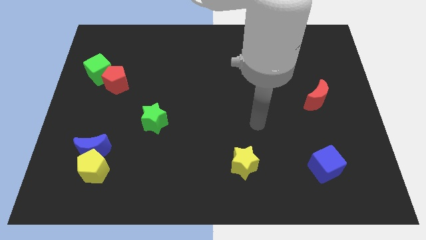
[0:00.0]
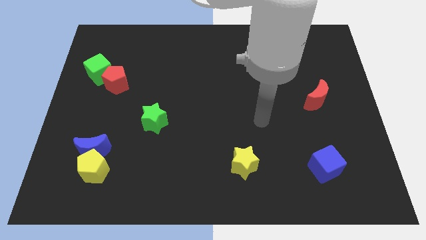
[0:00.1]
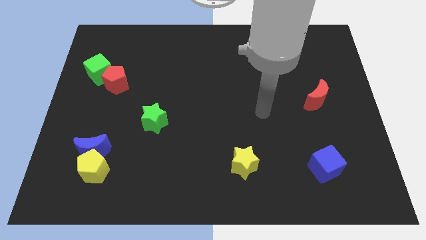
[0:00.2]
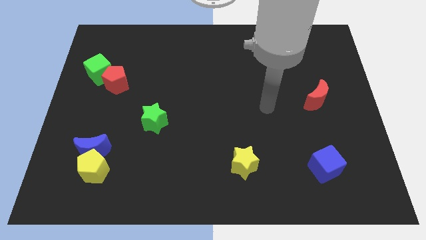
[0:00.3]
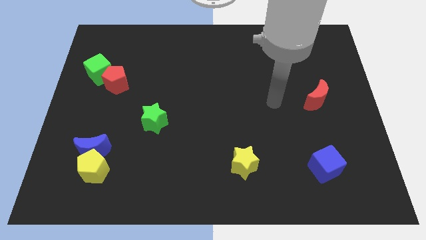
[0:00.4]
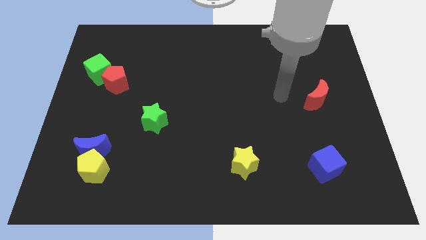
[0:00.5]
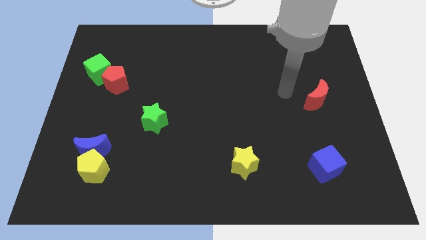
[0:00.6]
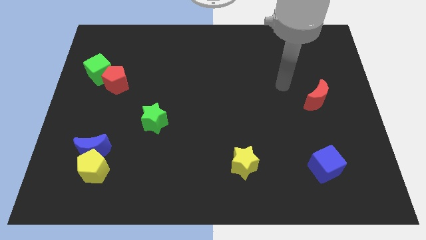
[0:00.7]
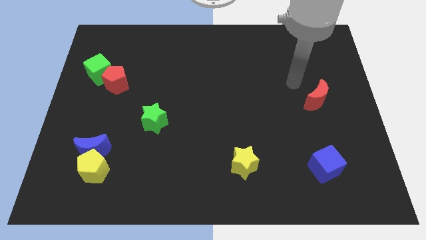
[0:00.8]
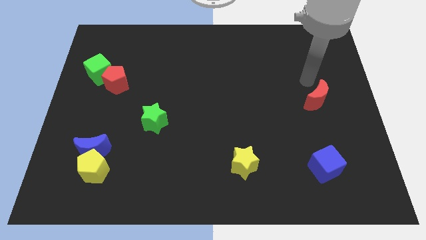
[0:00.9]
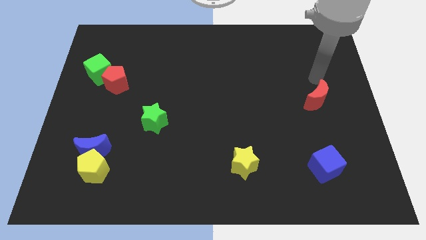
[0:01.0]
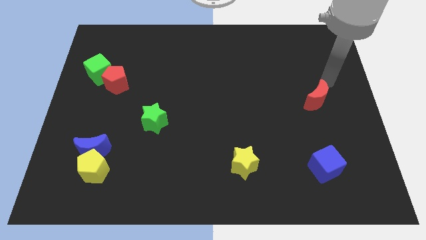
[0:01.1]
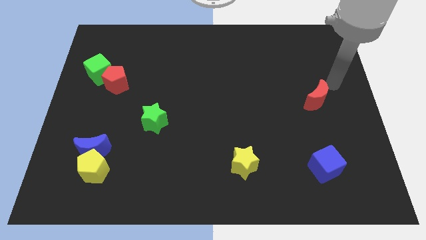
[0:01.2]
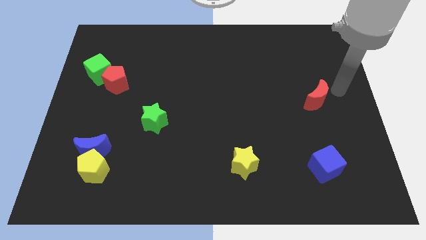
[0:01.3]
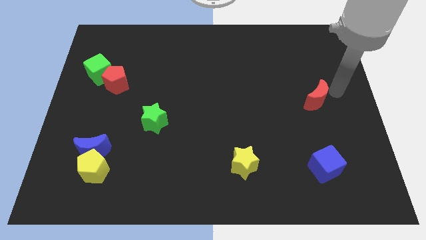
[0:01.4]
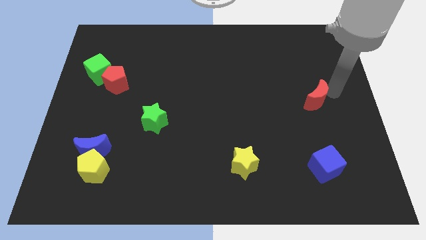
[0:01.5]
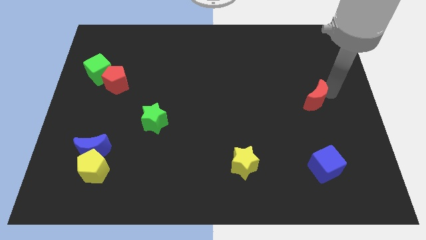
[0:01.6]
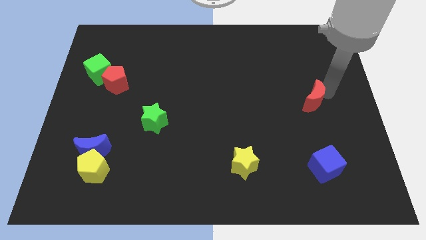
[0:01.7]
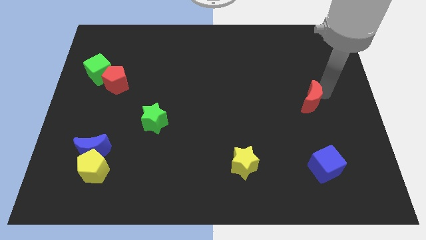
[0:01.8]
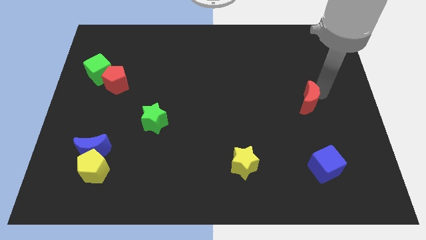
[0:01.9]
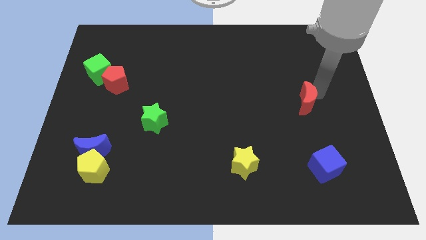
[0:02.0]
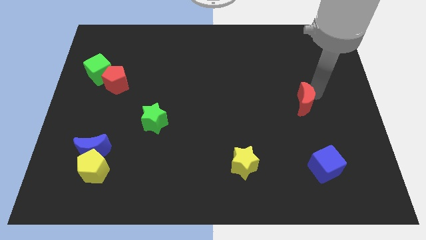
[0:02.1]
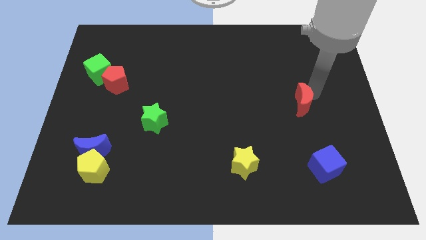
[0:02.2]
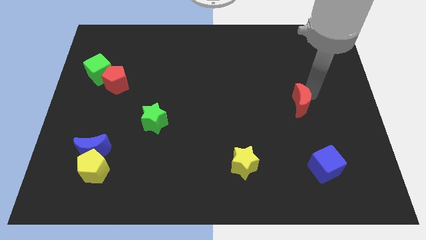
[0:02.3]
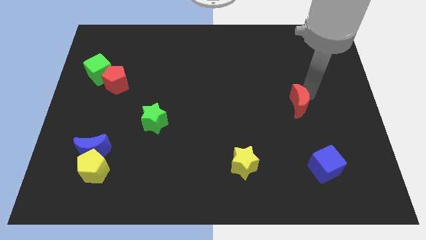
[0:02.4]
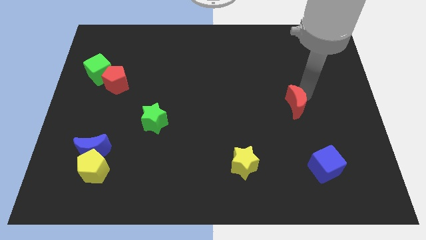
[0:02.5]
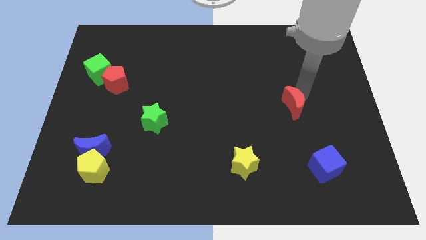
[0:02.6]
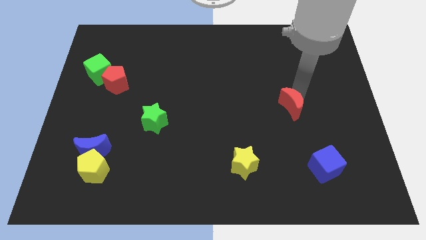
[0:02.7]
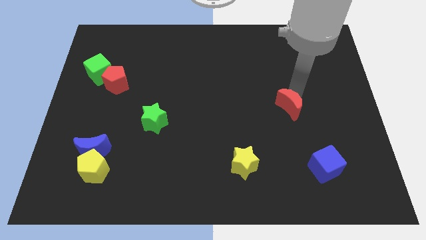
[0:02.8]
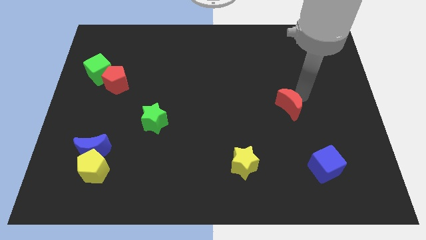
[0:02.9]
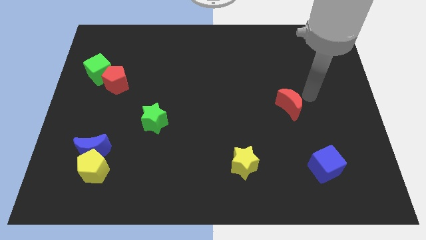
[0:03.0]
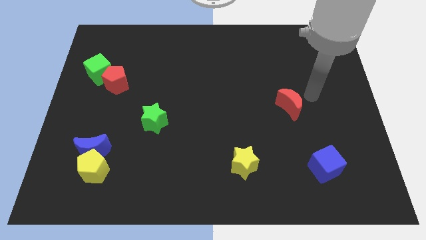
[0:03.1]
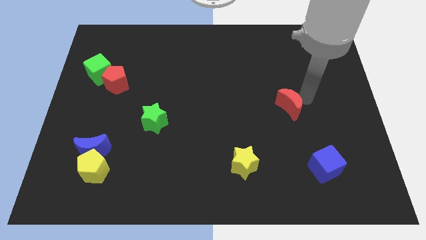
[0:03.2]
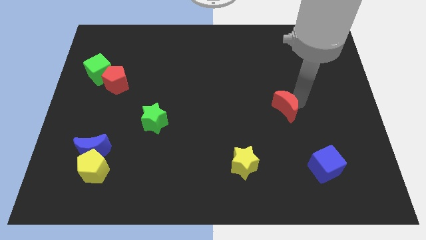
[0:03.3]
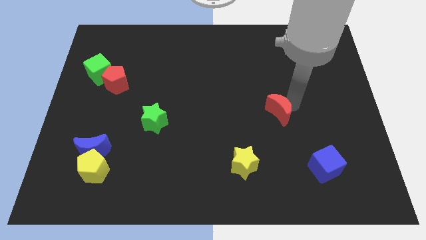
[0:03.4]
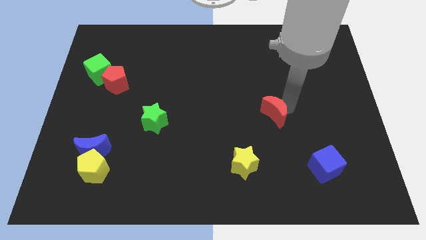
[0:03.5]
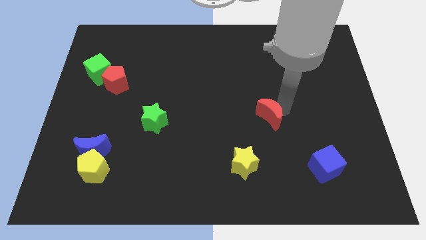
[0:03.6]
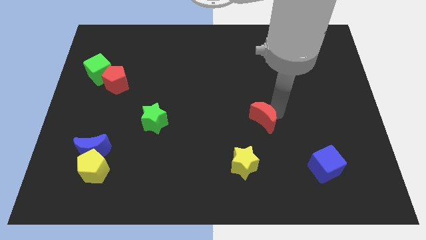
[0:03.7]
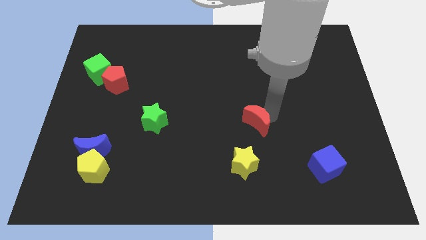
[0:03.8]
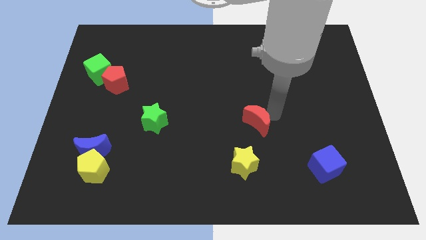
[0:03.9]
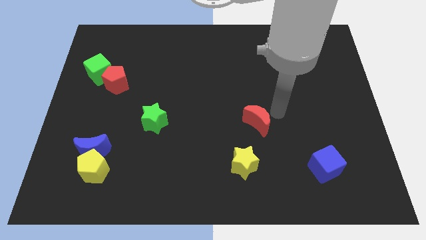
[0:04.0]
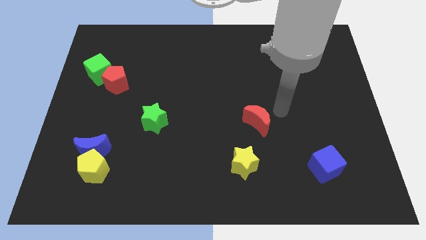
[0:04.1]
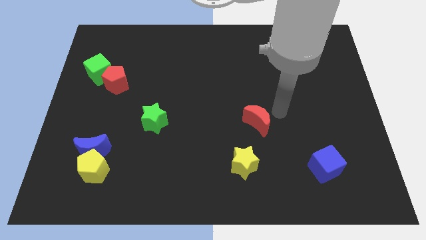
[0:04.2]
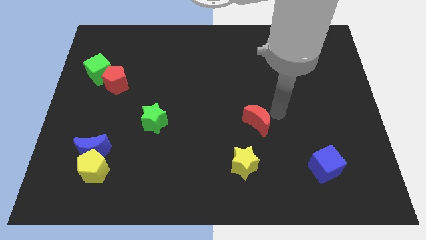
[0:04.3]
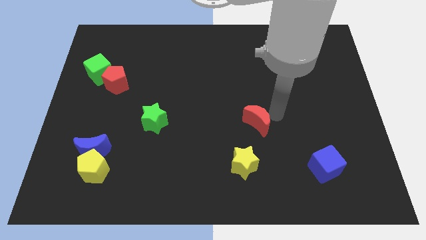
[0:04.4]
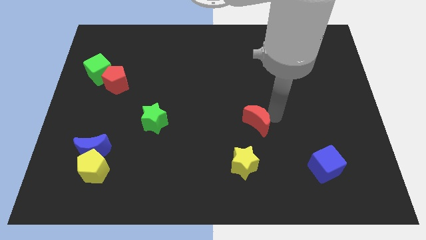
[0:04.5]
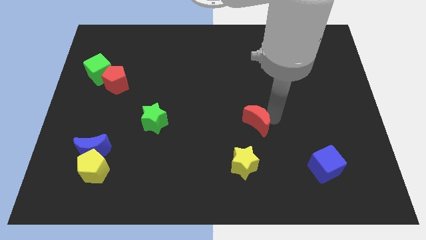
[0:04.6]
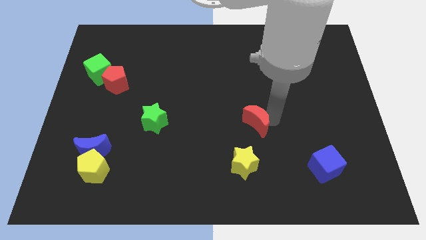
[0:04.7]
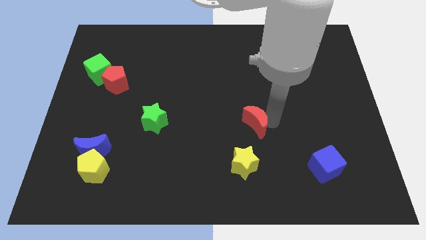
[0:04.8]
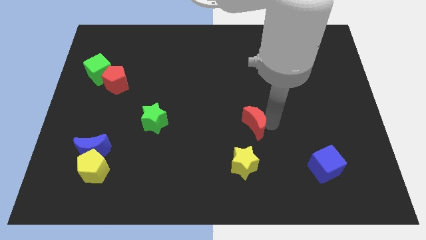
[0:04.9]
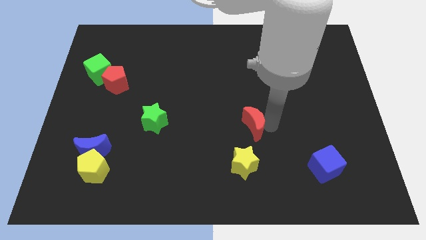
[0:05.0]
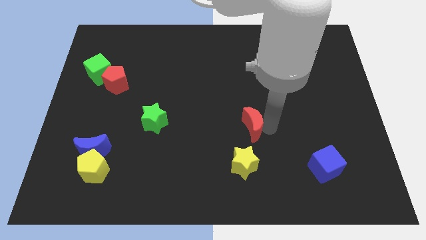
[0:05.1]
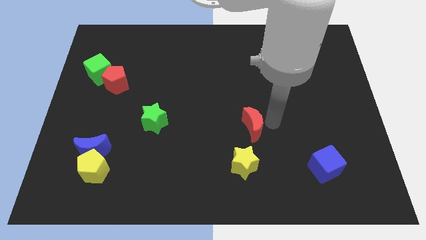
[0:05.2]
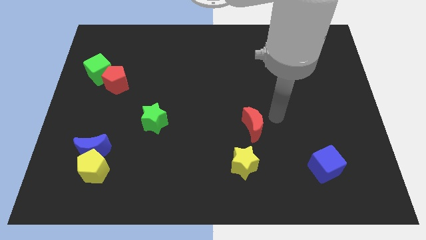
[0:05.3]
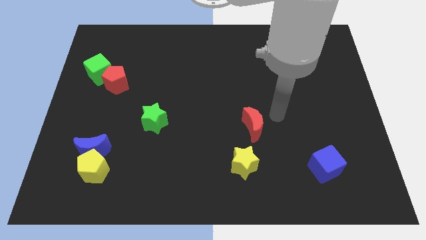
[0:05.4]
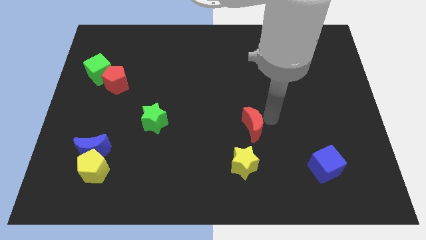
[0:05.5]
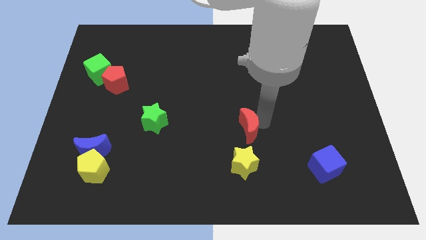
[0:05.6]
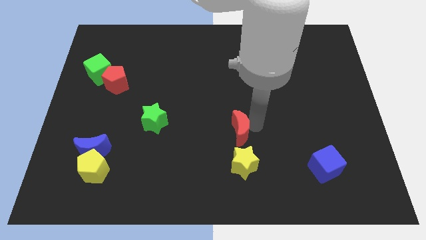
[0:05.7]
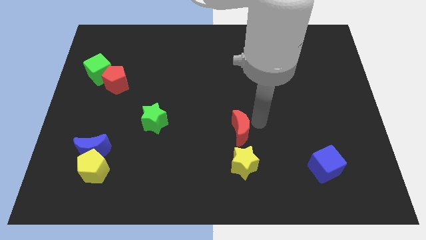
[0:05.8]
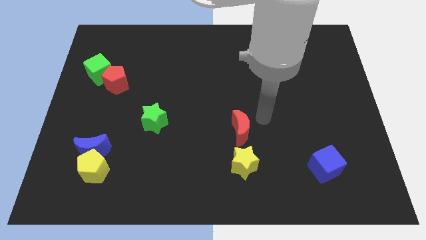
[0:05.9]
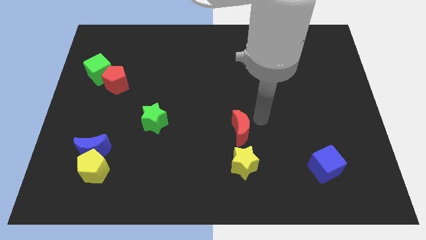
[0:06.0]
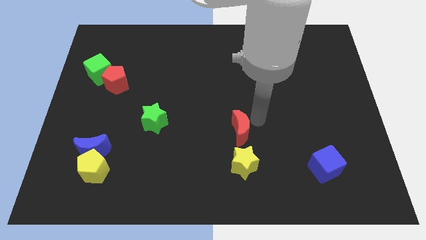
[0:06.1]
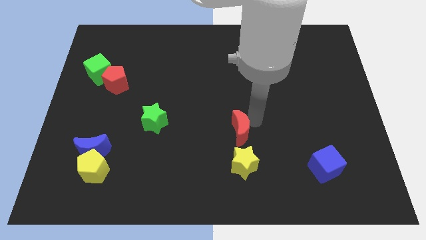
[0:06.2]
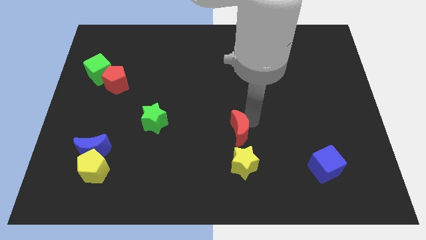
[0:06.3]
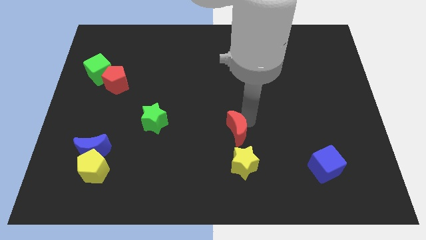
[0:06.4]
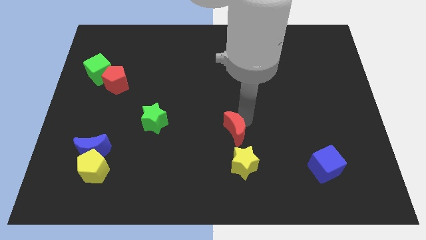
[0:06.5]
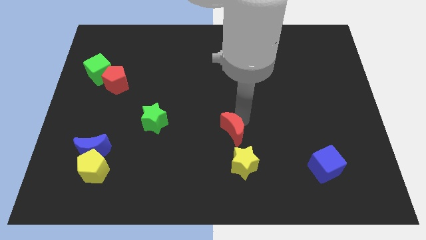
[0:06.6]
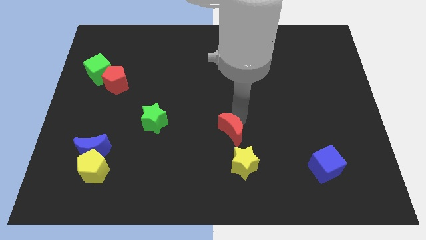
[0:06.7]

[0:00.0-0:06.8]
push the red moon diagonally up and to the left of the yellow star

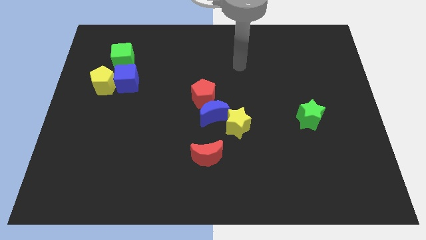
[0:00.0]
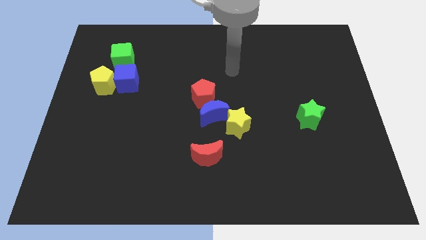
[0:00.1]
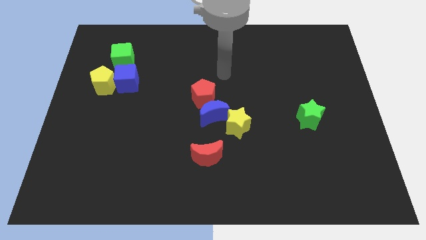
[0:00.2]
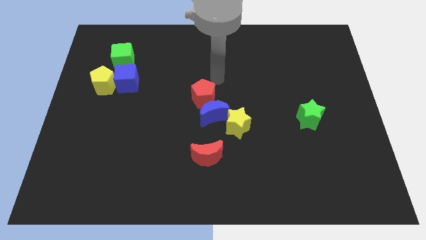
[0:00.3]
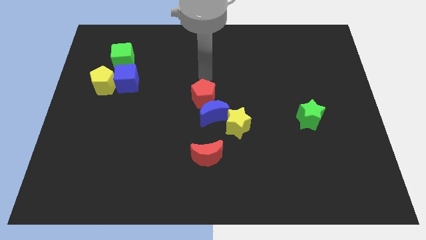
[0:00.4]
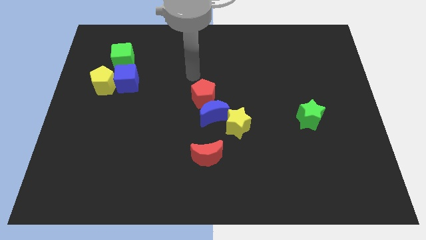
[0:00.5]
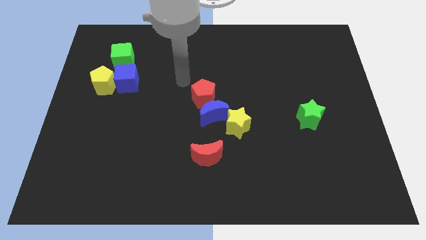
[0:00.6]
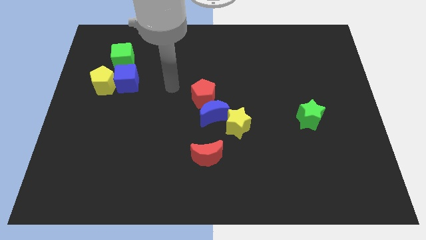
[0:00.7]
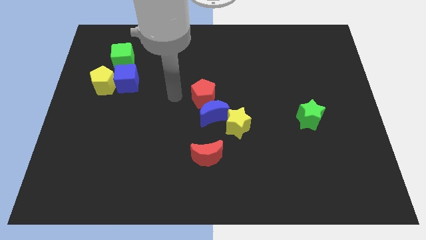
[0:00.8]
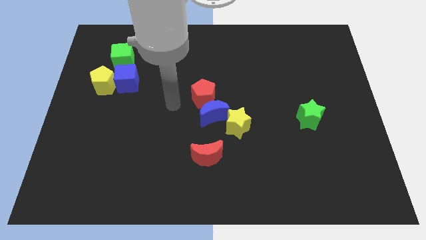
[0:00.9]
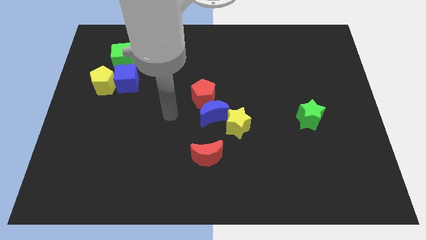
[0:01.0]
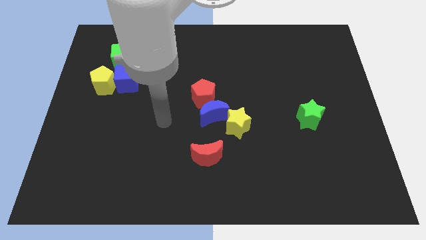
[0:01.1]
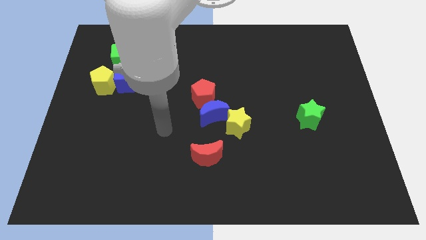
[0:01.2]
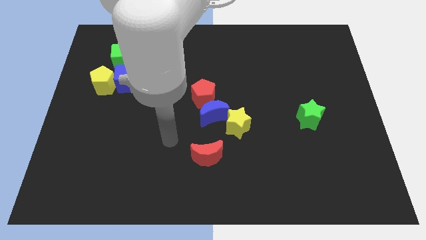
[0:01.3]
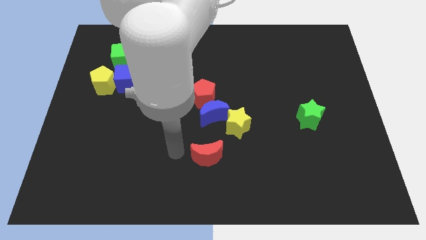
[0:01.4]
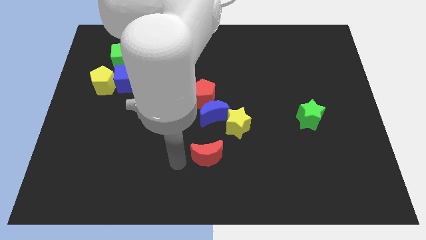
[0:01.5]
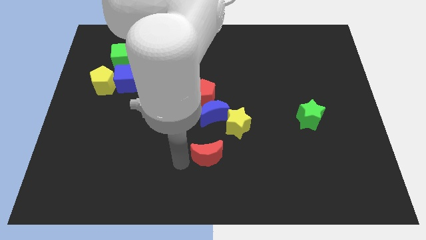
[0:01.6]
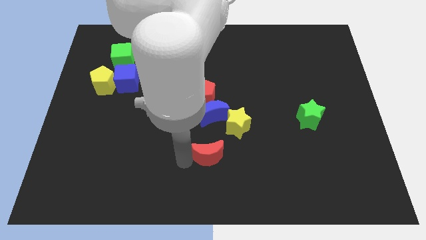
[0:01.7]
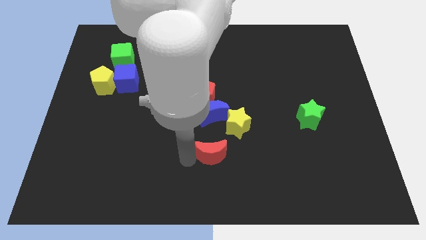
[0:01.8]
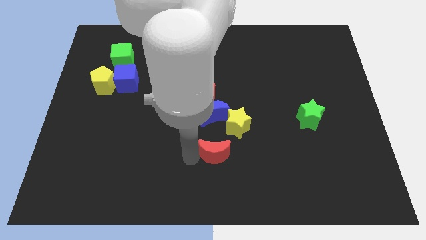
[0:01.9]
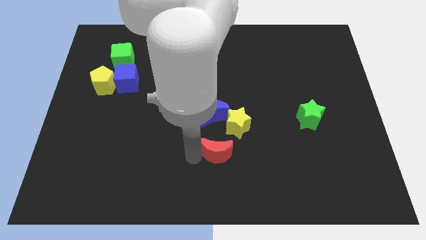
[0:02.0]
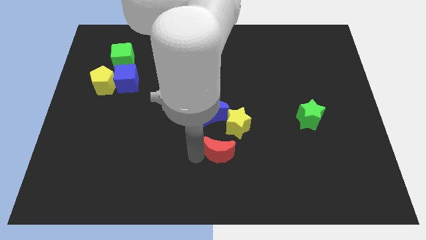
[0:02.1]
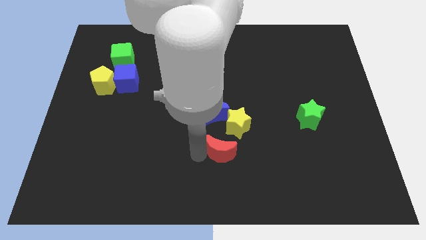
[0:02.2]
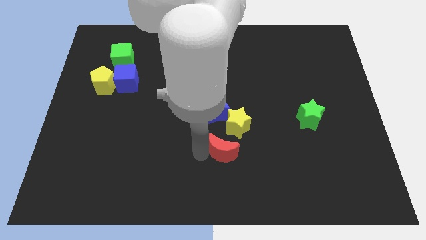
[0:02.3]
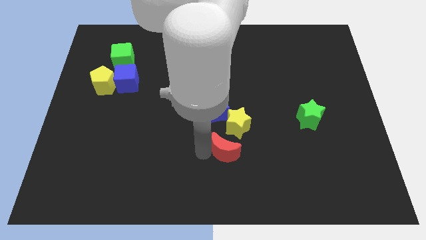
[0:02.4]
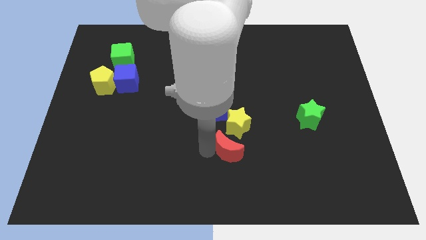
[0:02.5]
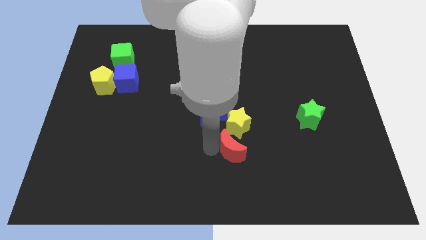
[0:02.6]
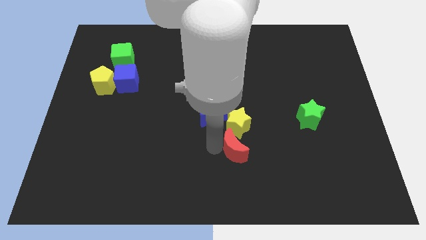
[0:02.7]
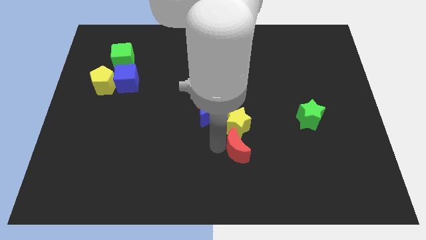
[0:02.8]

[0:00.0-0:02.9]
move the red moon to the bottom right side of the yellow star
